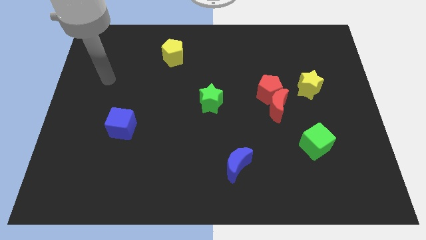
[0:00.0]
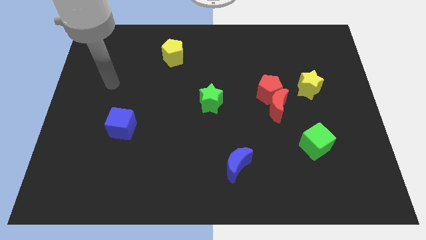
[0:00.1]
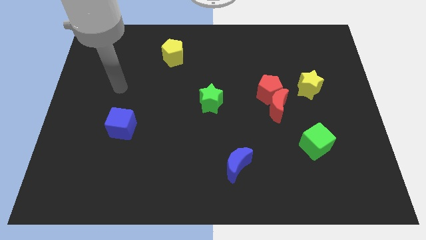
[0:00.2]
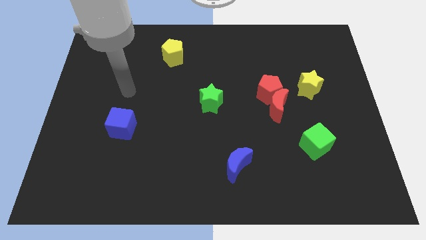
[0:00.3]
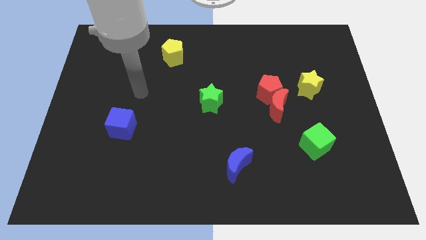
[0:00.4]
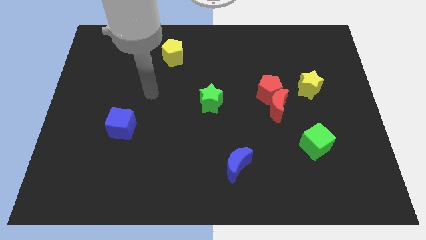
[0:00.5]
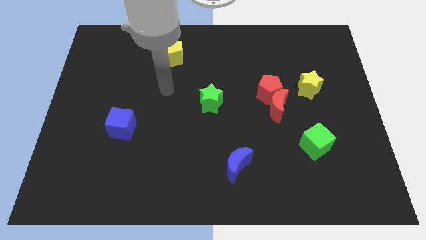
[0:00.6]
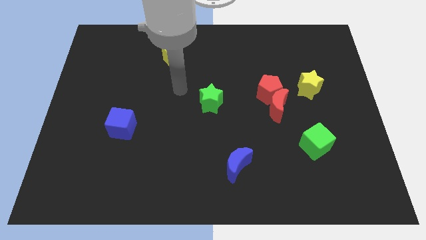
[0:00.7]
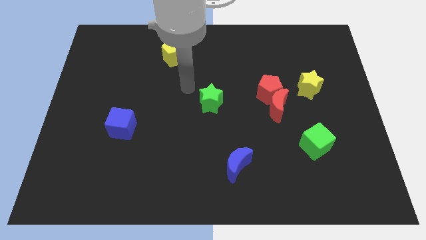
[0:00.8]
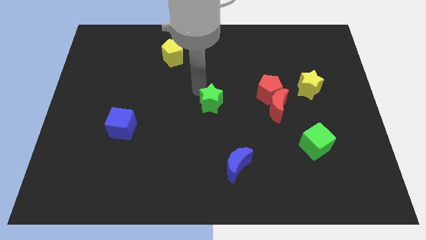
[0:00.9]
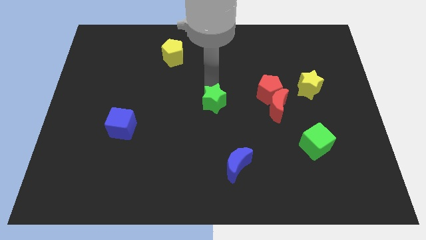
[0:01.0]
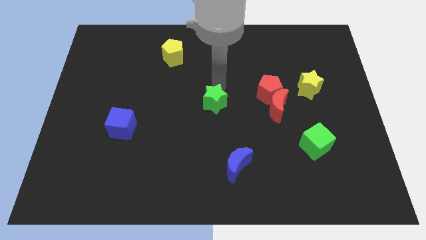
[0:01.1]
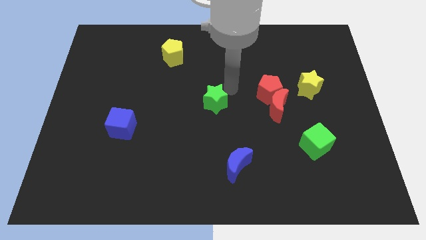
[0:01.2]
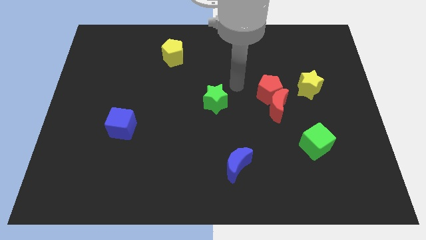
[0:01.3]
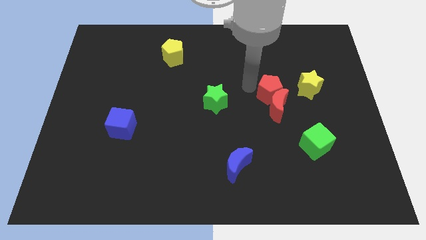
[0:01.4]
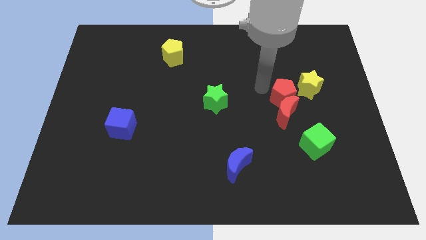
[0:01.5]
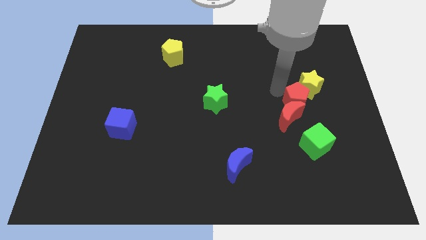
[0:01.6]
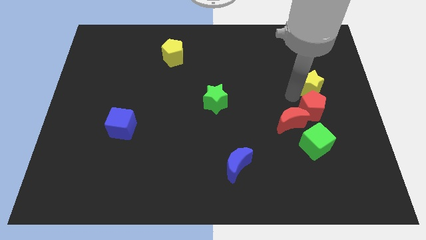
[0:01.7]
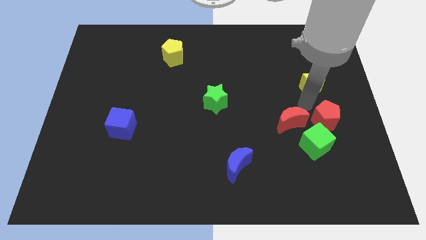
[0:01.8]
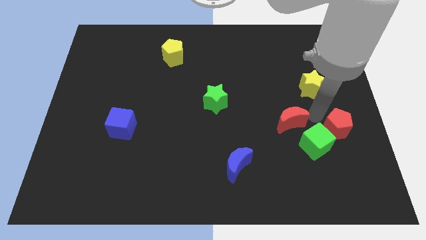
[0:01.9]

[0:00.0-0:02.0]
move the red moon away from the red pentagon

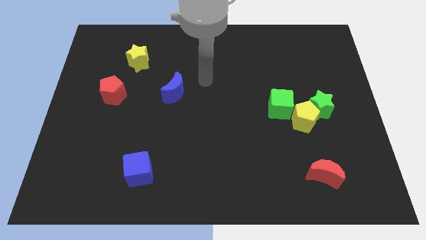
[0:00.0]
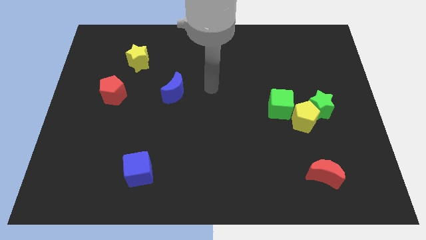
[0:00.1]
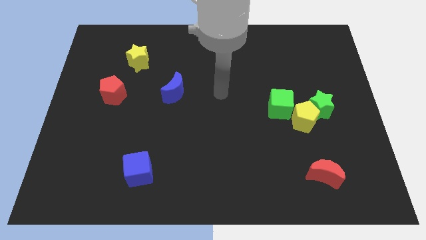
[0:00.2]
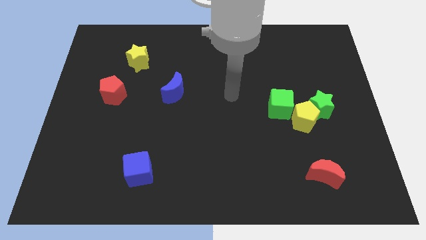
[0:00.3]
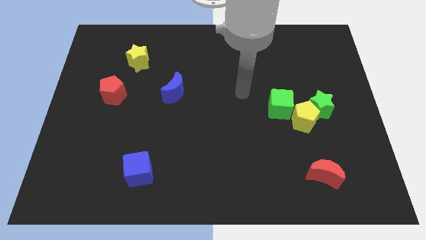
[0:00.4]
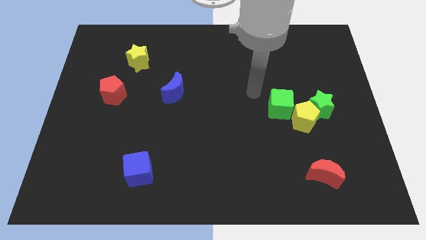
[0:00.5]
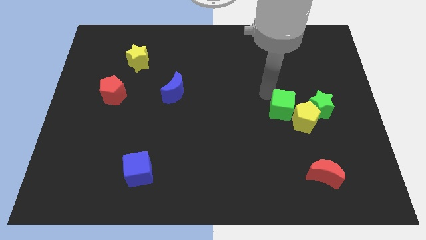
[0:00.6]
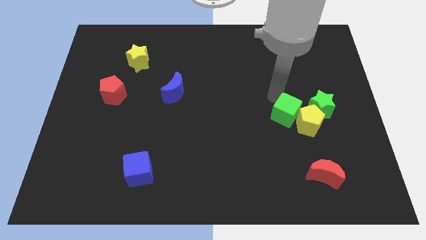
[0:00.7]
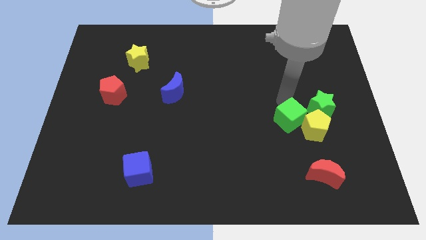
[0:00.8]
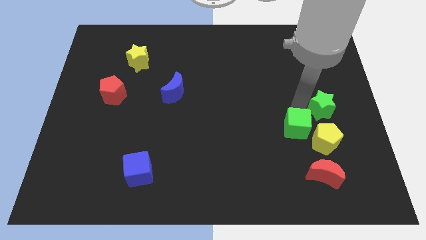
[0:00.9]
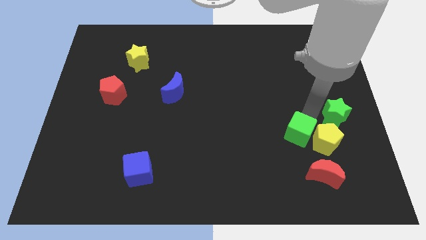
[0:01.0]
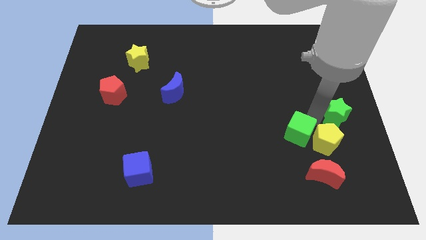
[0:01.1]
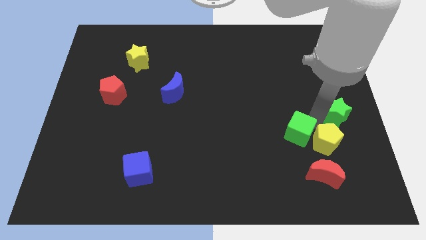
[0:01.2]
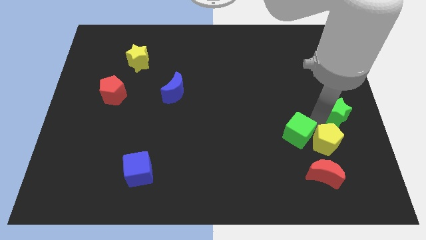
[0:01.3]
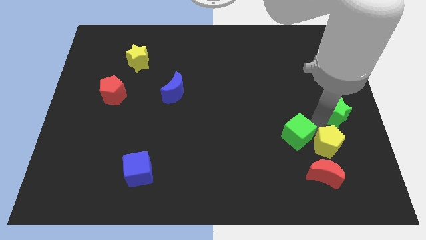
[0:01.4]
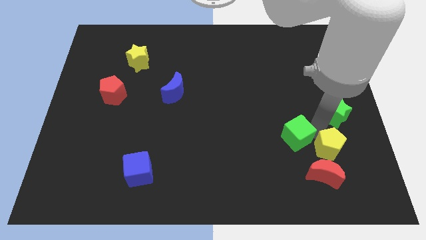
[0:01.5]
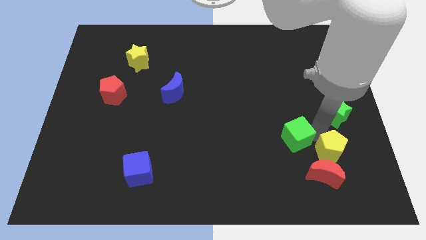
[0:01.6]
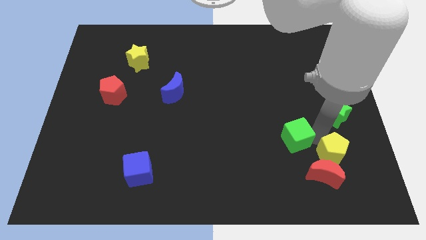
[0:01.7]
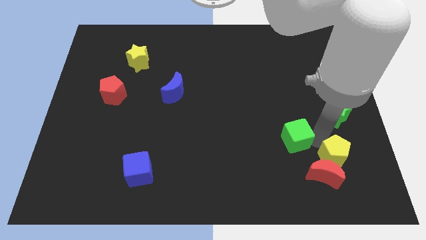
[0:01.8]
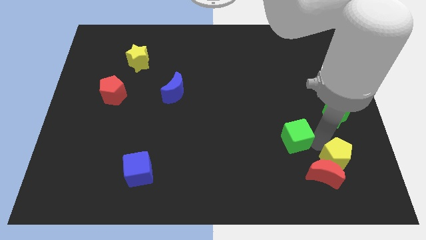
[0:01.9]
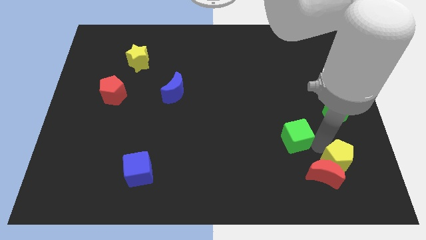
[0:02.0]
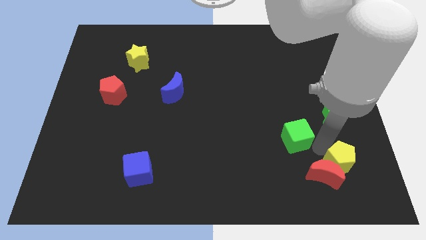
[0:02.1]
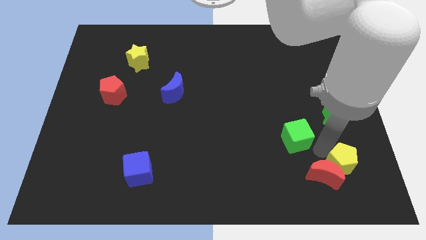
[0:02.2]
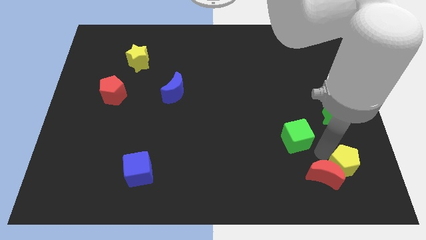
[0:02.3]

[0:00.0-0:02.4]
pull the yellow pentagon apart from the green star and green cube

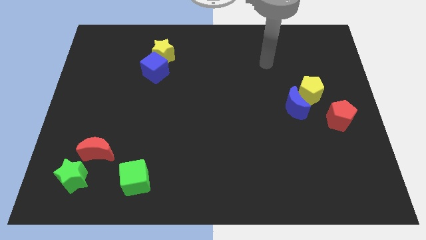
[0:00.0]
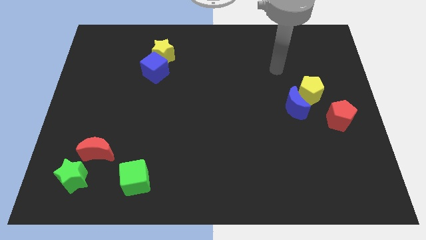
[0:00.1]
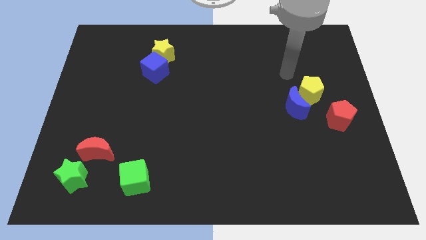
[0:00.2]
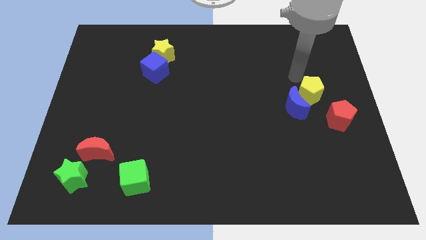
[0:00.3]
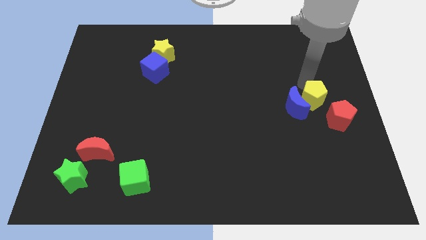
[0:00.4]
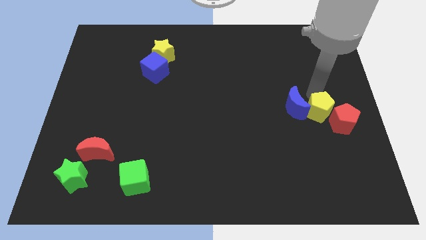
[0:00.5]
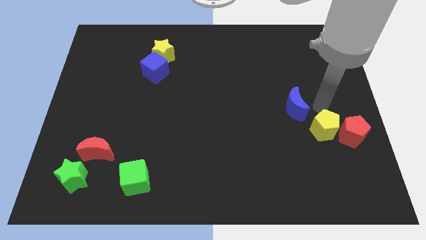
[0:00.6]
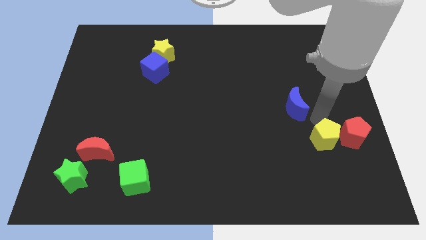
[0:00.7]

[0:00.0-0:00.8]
separate the blue moon from the yellow pentagon

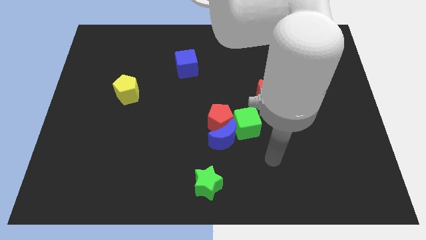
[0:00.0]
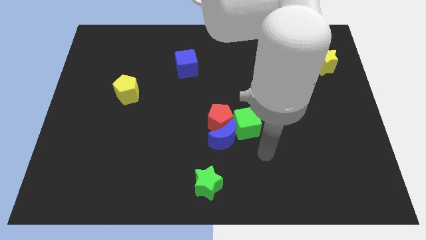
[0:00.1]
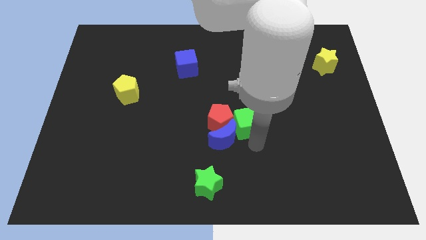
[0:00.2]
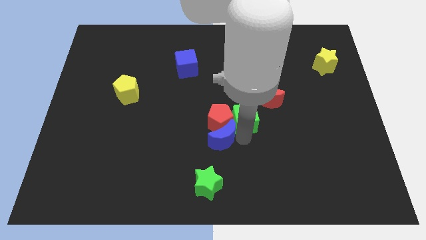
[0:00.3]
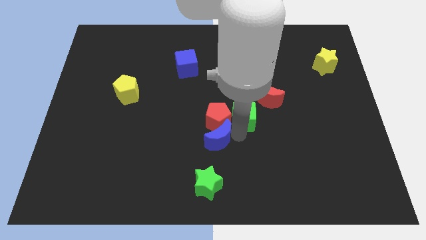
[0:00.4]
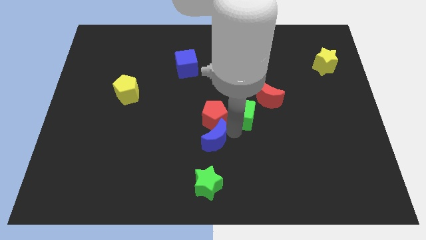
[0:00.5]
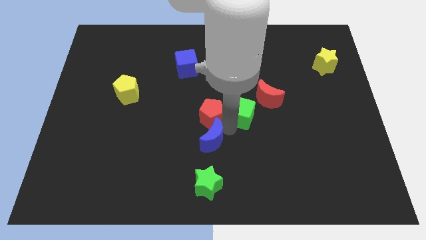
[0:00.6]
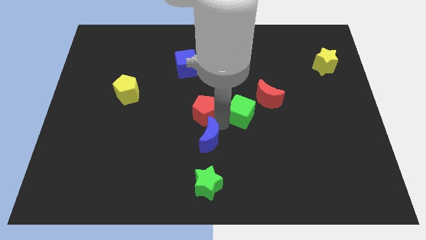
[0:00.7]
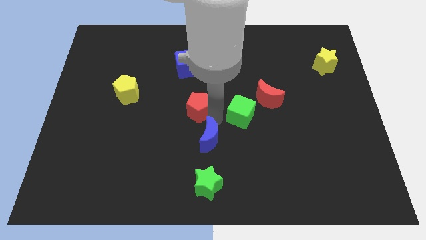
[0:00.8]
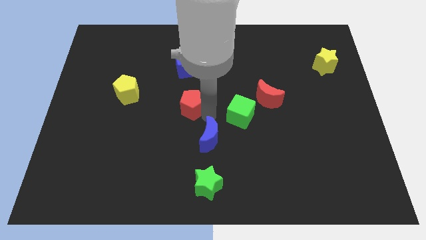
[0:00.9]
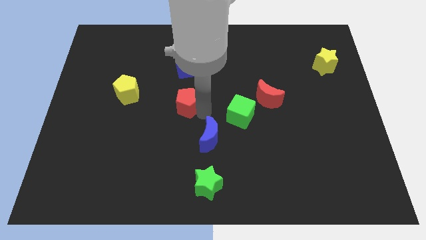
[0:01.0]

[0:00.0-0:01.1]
separate the red pentagon from the blue moon and green cube

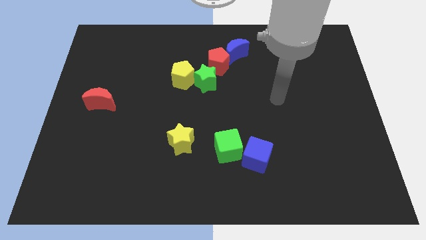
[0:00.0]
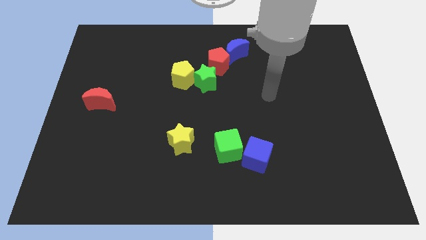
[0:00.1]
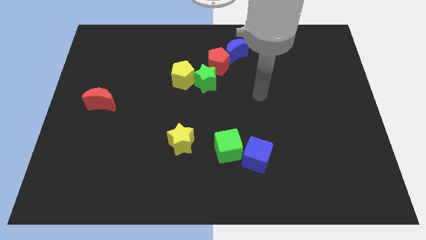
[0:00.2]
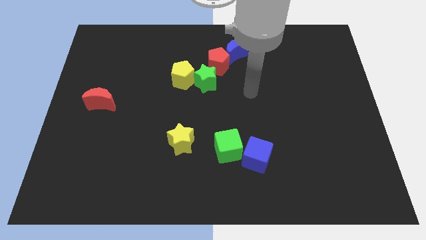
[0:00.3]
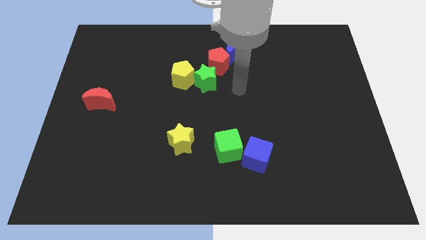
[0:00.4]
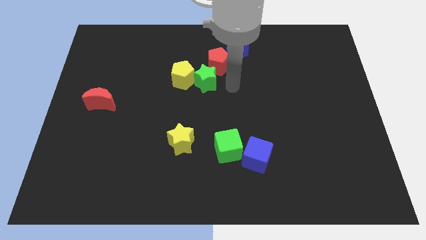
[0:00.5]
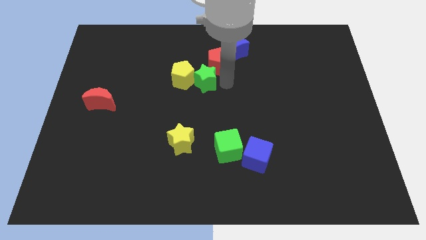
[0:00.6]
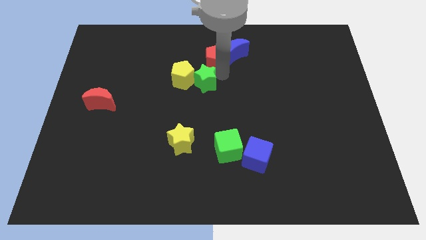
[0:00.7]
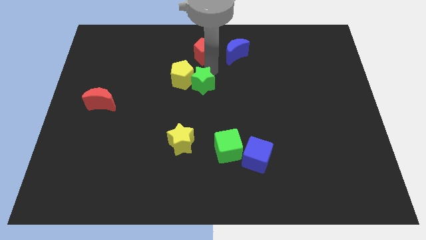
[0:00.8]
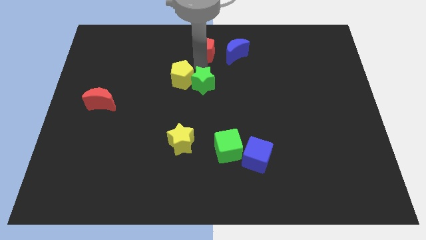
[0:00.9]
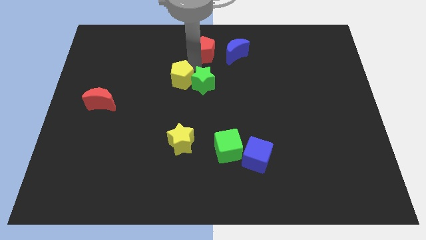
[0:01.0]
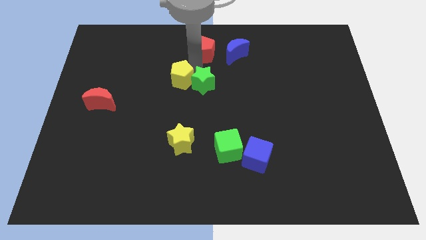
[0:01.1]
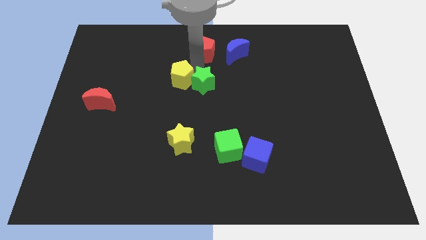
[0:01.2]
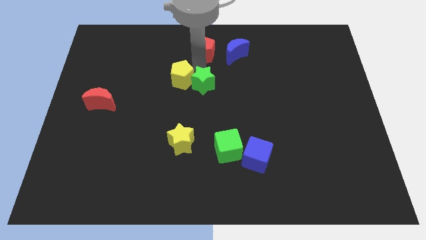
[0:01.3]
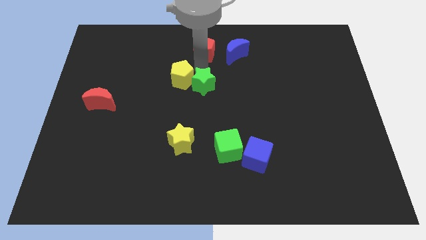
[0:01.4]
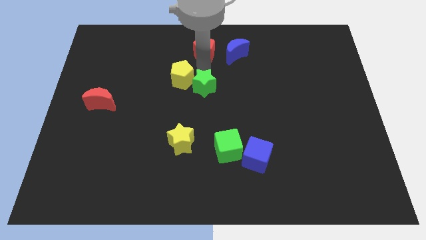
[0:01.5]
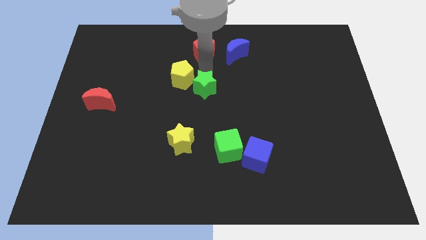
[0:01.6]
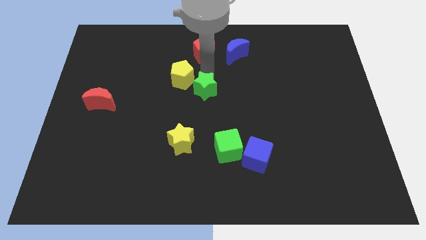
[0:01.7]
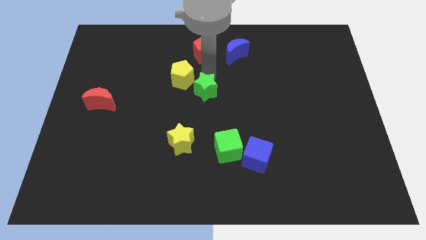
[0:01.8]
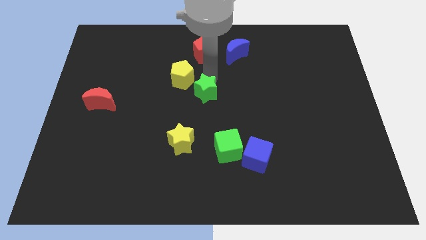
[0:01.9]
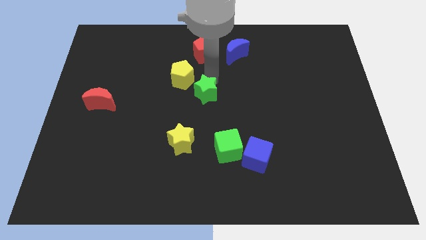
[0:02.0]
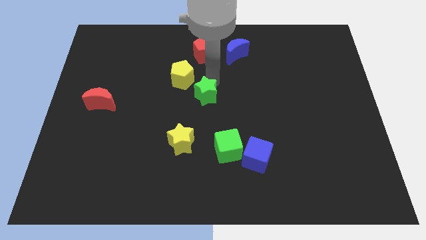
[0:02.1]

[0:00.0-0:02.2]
pull the green star apart from the yellow pentagon and red pentagon

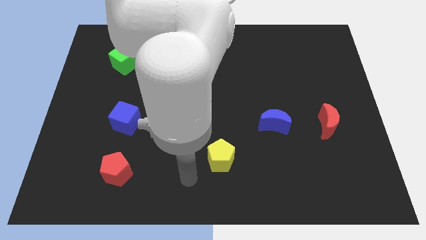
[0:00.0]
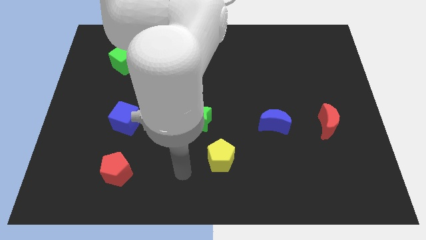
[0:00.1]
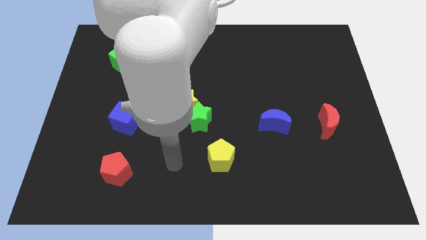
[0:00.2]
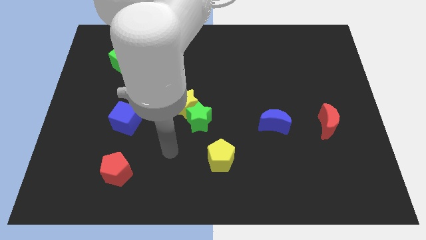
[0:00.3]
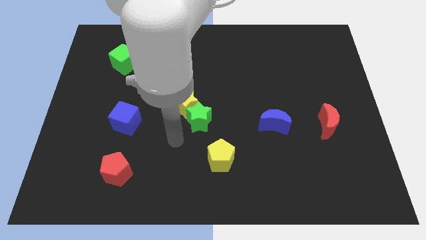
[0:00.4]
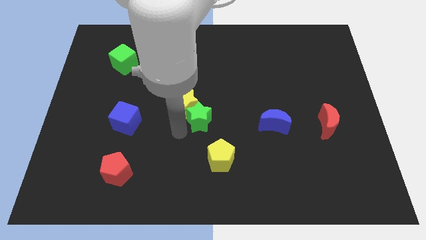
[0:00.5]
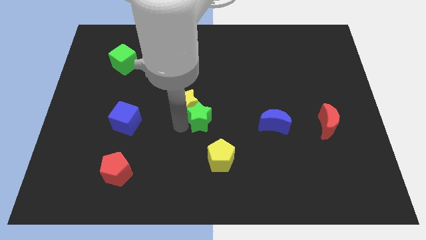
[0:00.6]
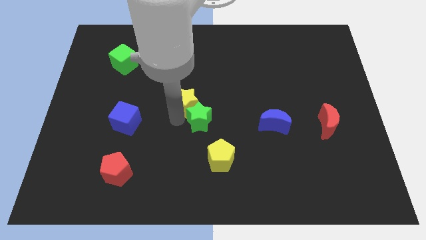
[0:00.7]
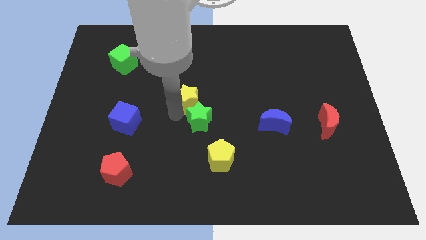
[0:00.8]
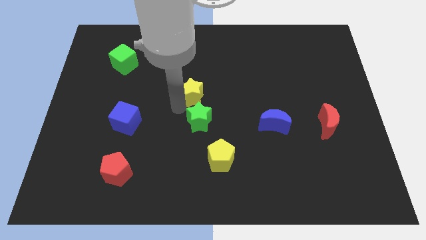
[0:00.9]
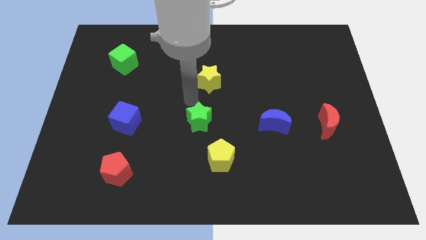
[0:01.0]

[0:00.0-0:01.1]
pull the green star apart from the yellow star
